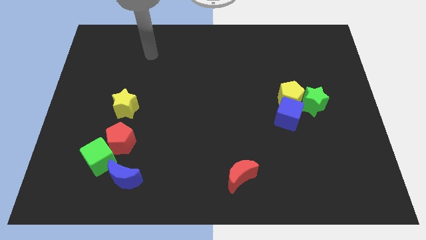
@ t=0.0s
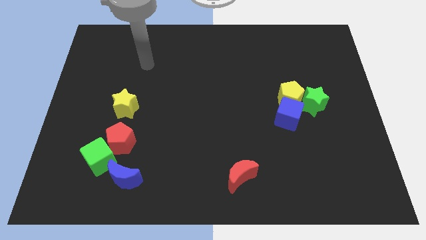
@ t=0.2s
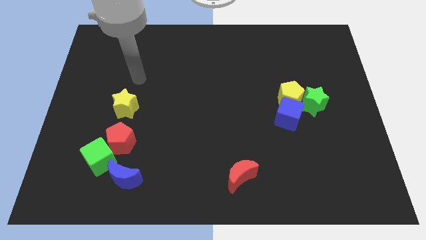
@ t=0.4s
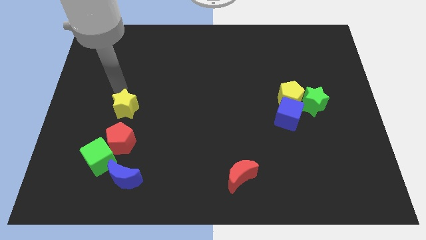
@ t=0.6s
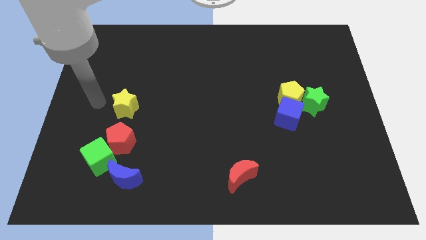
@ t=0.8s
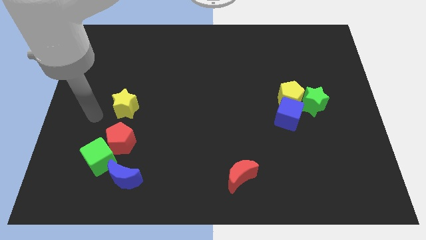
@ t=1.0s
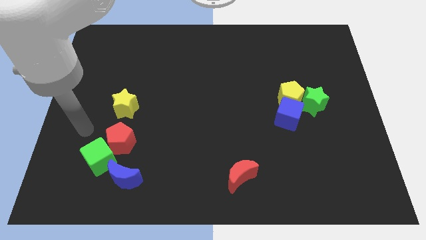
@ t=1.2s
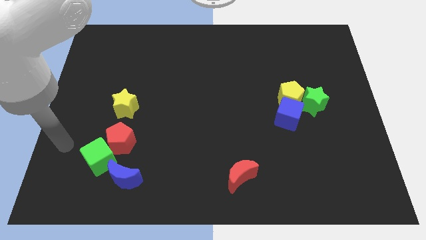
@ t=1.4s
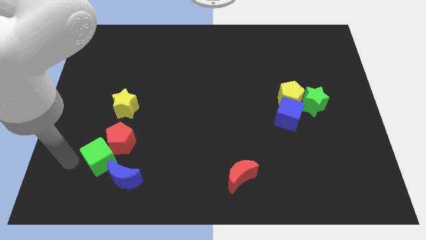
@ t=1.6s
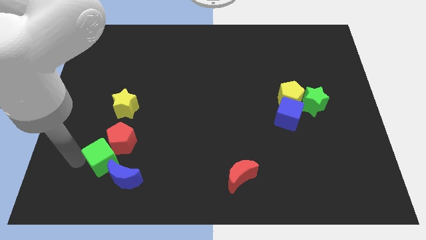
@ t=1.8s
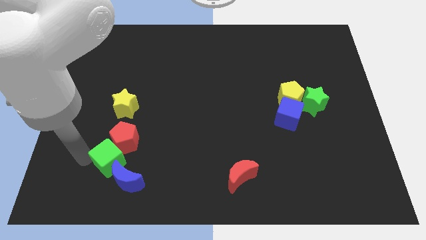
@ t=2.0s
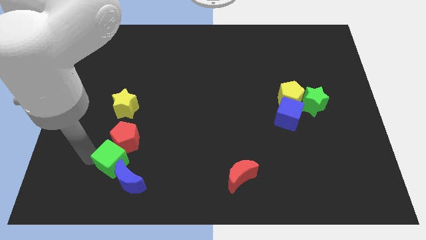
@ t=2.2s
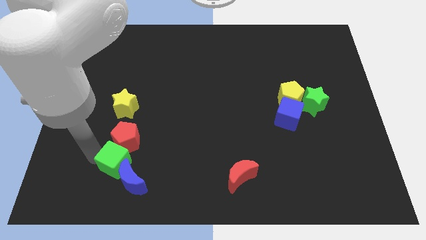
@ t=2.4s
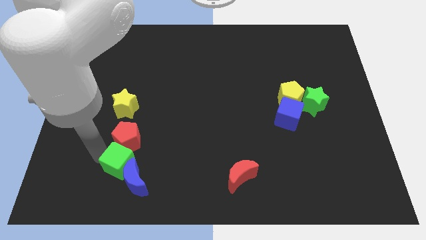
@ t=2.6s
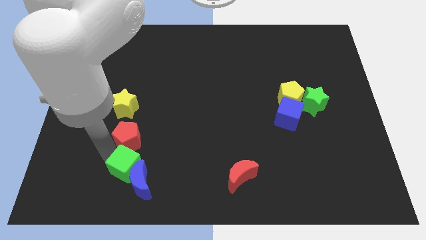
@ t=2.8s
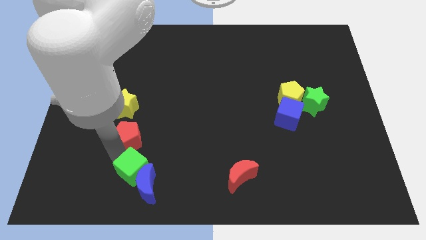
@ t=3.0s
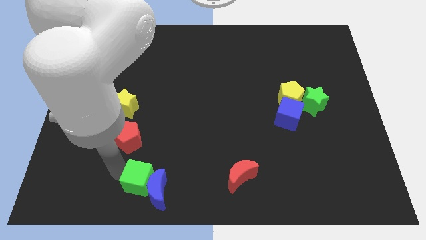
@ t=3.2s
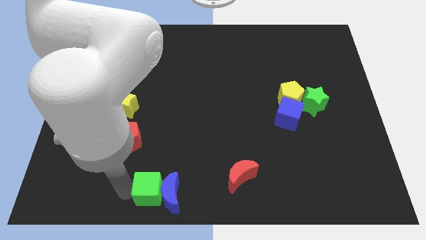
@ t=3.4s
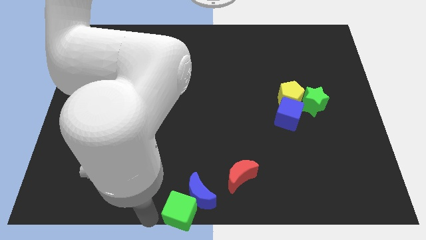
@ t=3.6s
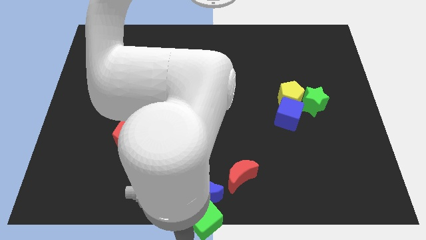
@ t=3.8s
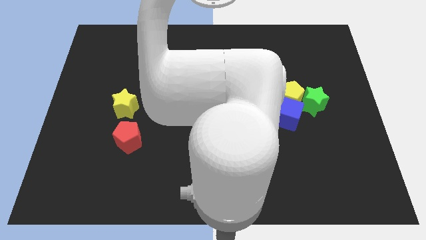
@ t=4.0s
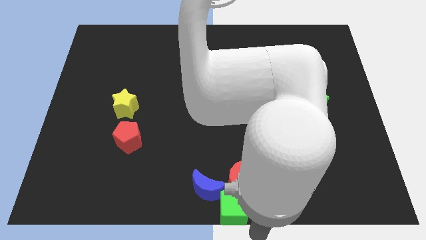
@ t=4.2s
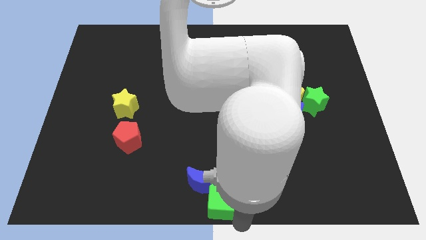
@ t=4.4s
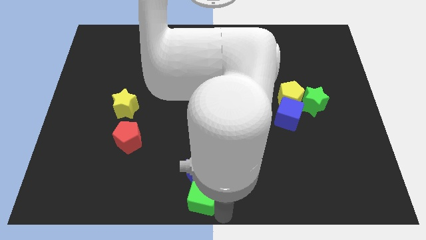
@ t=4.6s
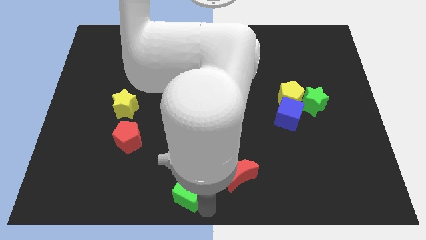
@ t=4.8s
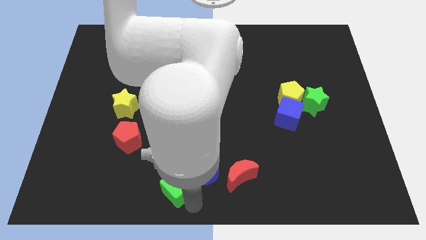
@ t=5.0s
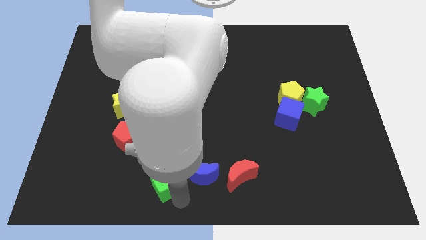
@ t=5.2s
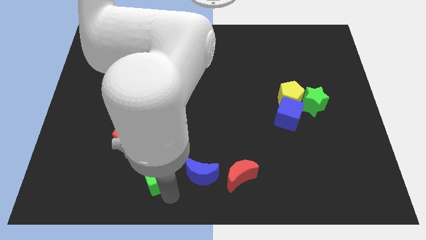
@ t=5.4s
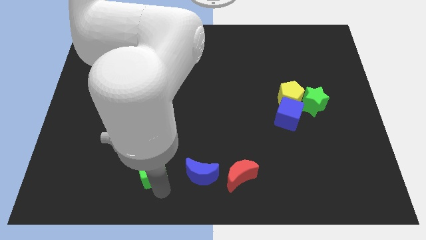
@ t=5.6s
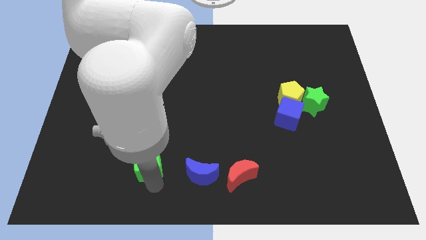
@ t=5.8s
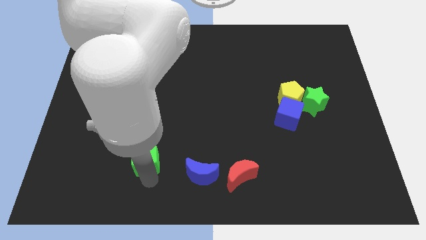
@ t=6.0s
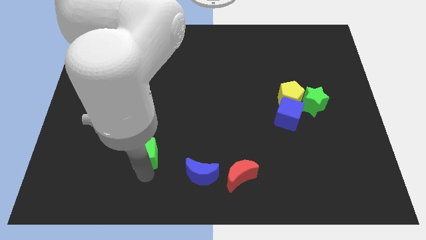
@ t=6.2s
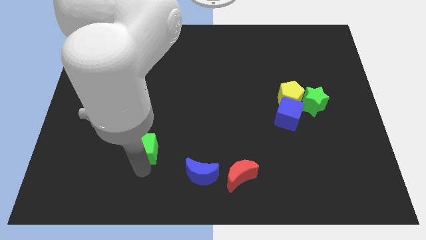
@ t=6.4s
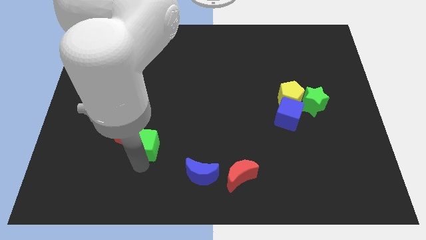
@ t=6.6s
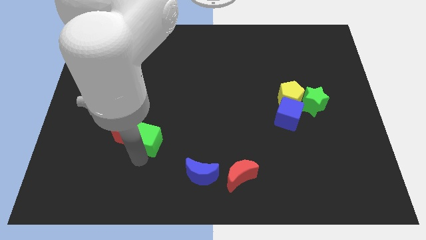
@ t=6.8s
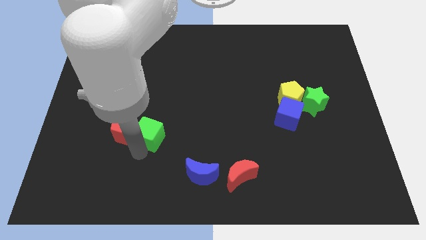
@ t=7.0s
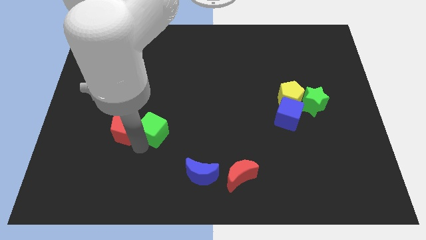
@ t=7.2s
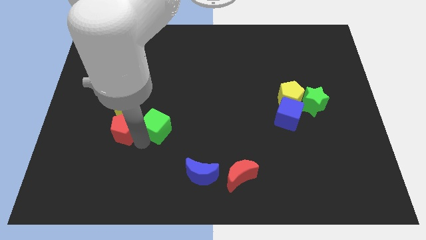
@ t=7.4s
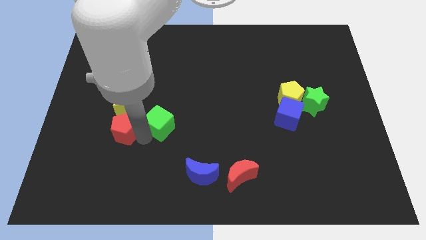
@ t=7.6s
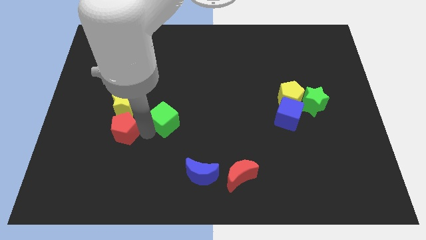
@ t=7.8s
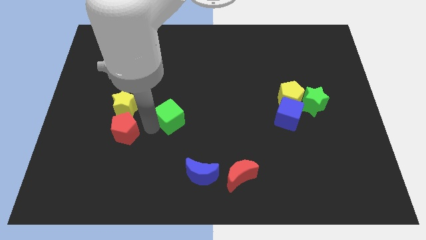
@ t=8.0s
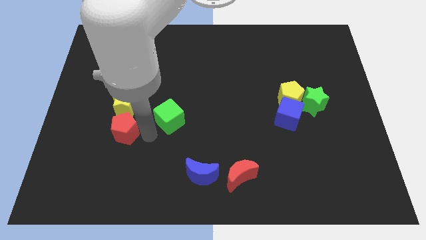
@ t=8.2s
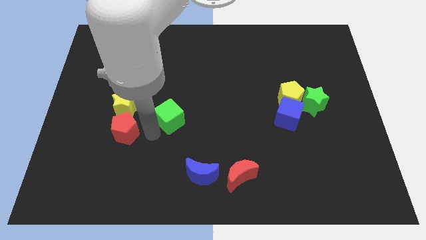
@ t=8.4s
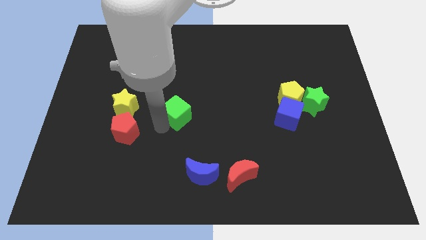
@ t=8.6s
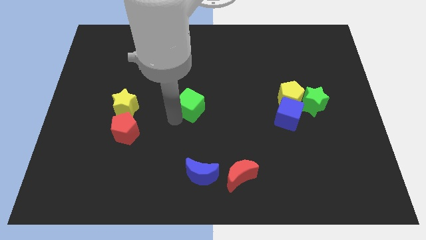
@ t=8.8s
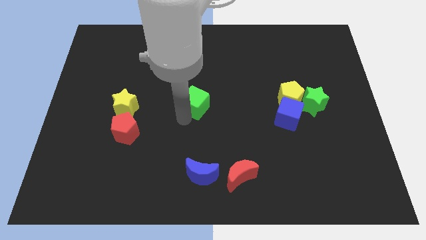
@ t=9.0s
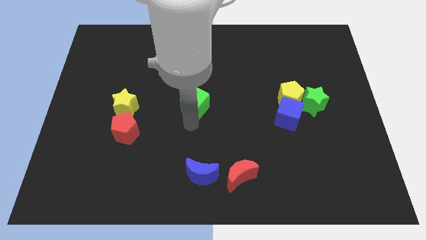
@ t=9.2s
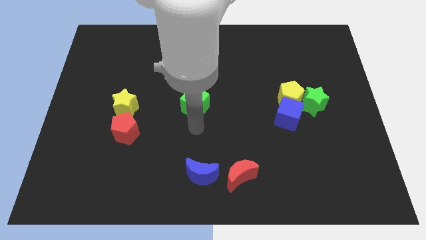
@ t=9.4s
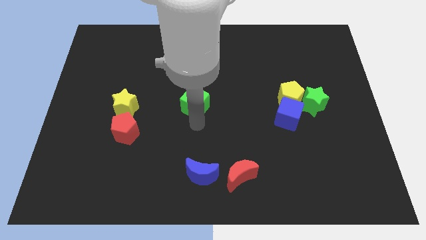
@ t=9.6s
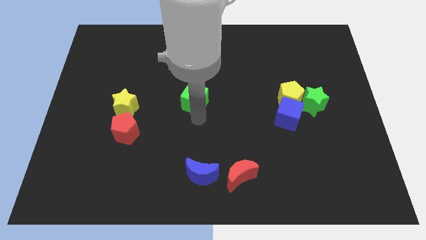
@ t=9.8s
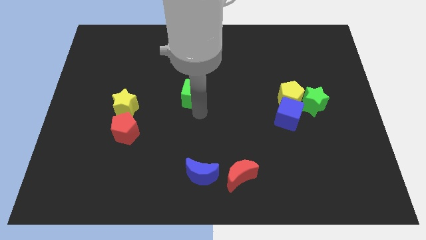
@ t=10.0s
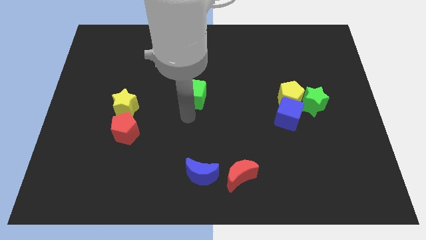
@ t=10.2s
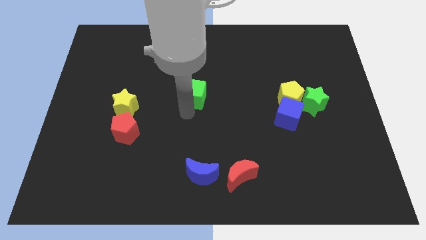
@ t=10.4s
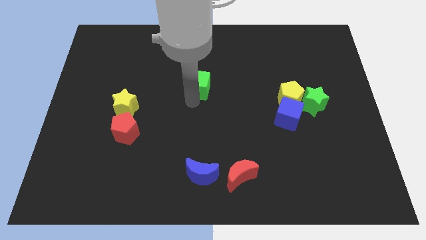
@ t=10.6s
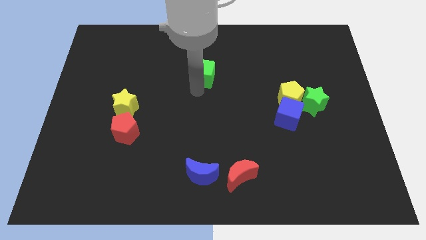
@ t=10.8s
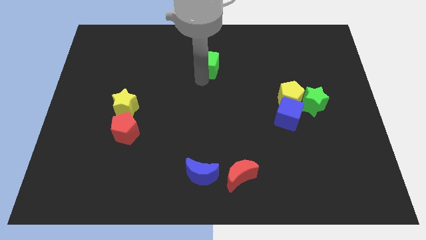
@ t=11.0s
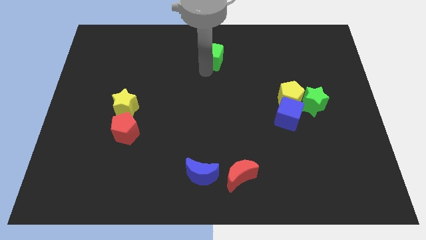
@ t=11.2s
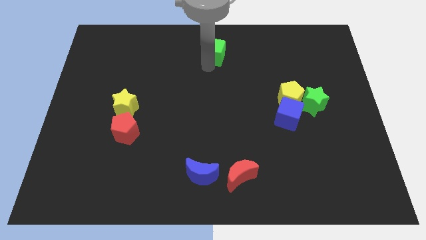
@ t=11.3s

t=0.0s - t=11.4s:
move the green cube to the towards your base

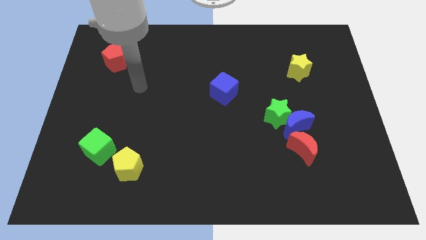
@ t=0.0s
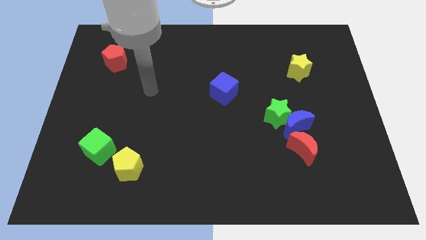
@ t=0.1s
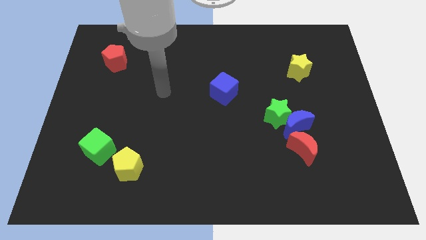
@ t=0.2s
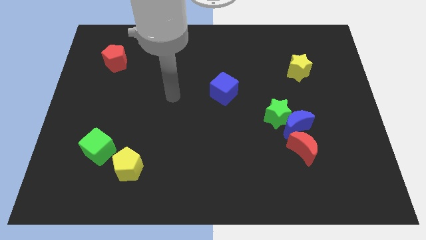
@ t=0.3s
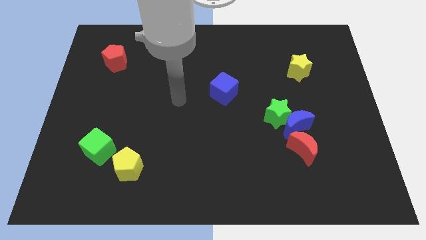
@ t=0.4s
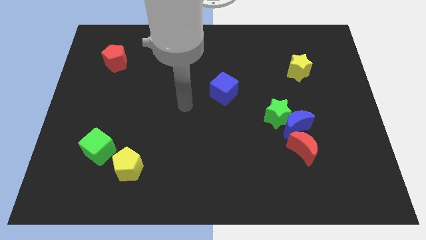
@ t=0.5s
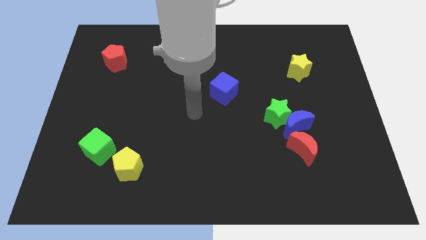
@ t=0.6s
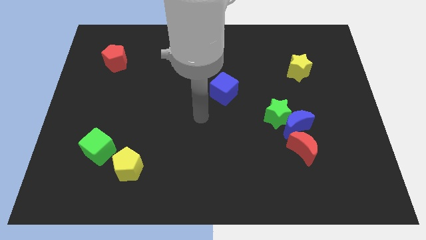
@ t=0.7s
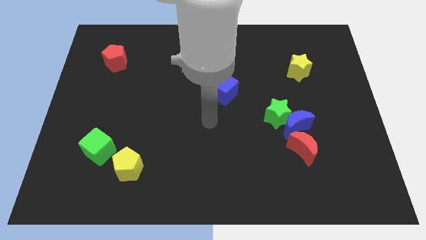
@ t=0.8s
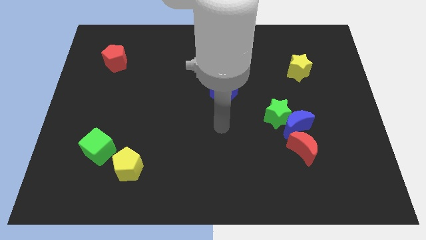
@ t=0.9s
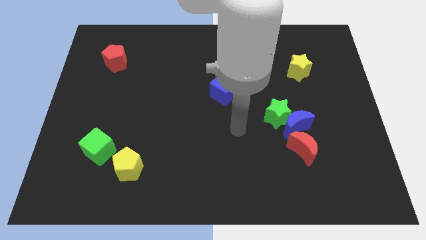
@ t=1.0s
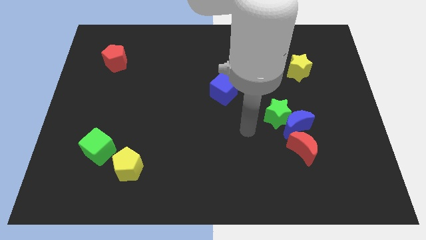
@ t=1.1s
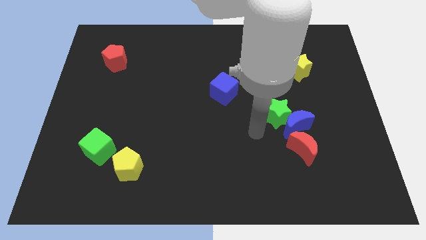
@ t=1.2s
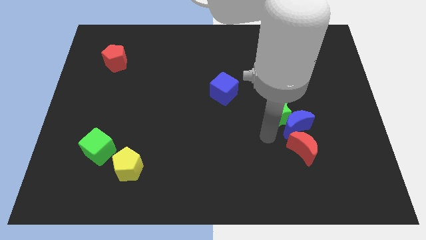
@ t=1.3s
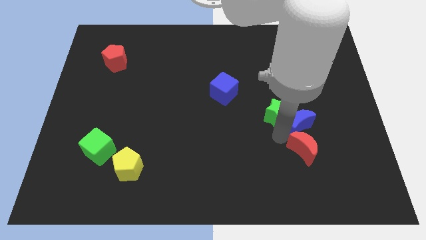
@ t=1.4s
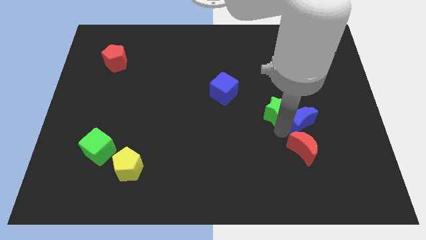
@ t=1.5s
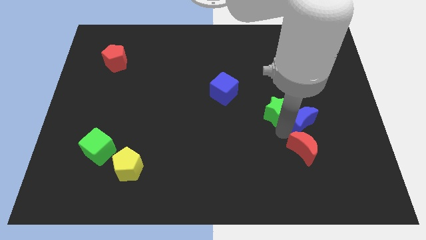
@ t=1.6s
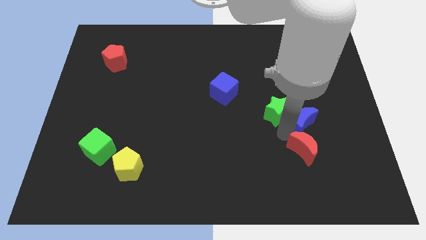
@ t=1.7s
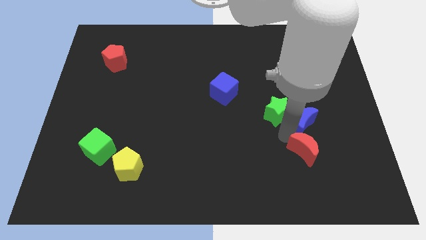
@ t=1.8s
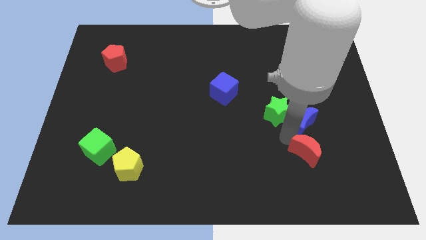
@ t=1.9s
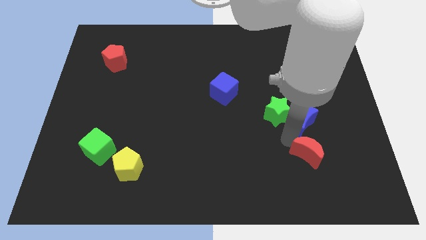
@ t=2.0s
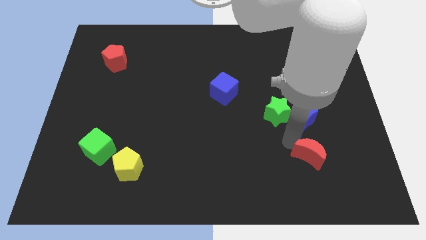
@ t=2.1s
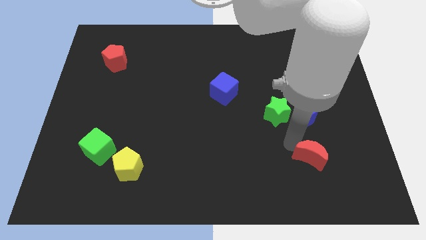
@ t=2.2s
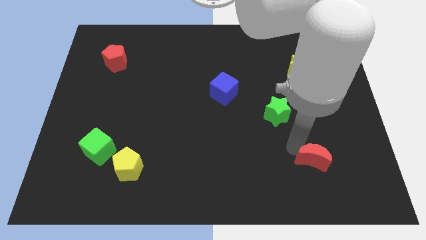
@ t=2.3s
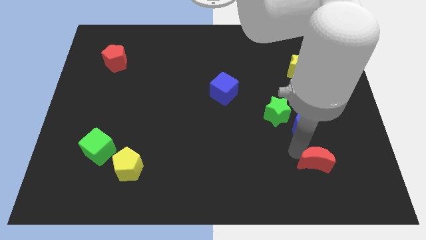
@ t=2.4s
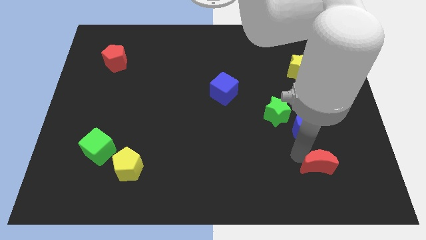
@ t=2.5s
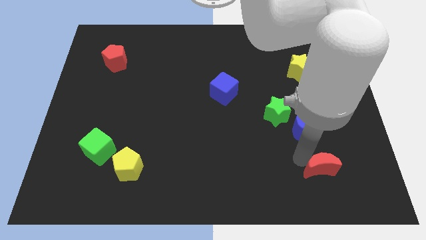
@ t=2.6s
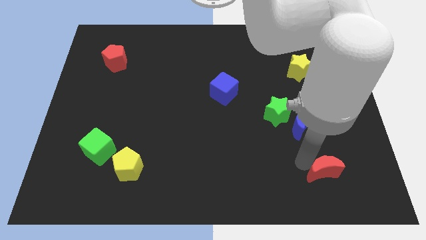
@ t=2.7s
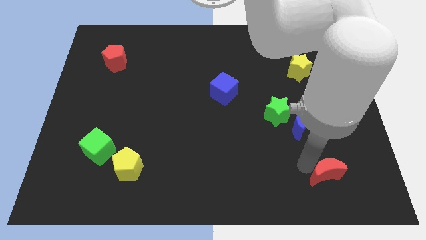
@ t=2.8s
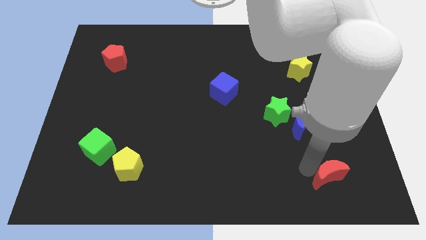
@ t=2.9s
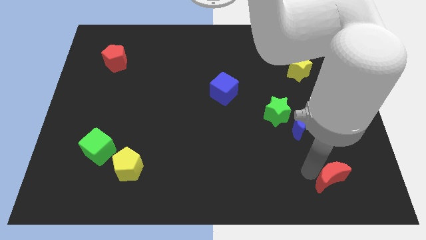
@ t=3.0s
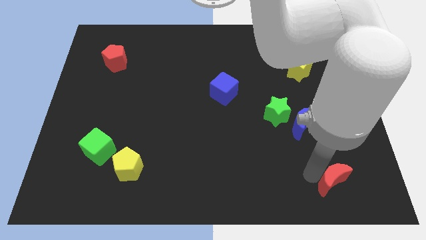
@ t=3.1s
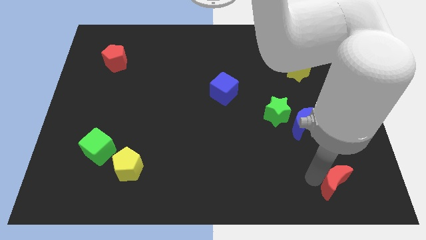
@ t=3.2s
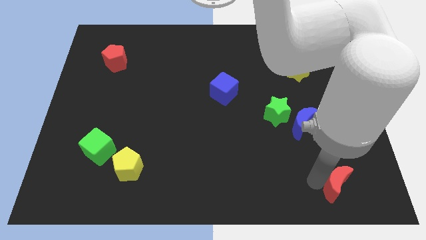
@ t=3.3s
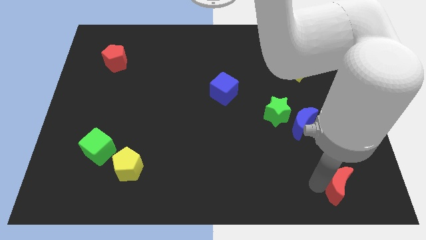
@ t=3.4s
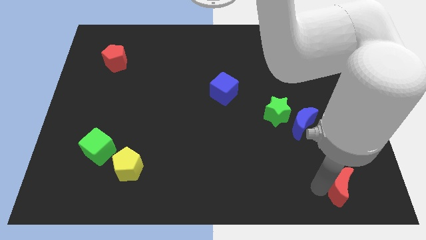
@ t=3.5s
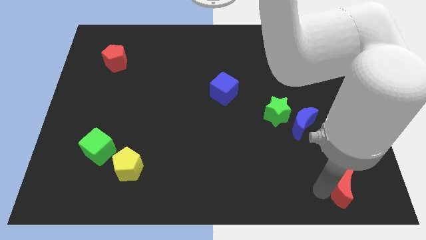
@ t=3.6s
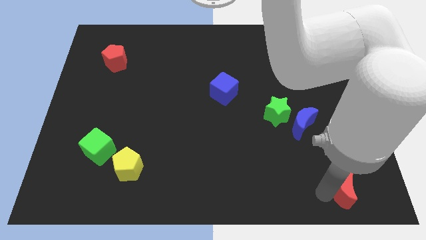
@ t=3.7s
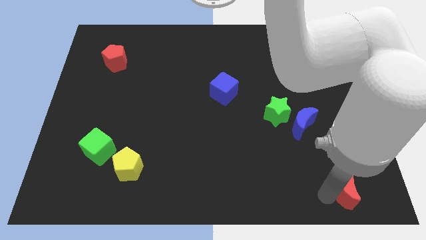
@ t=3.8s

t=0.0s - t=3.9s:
put the red moon to the bottom right
